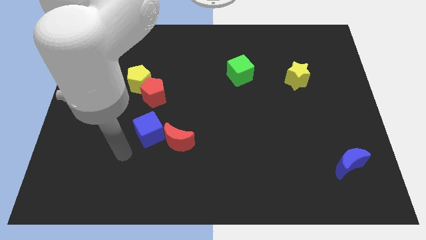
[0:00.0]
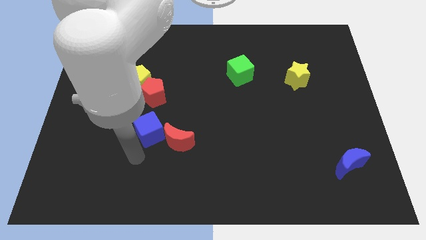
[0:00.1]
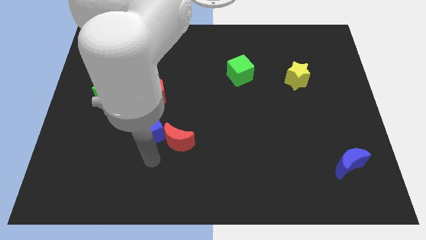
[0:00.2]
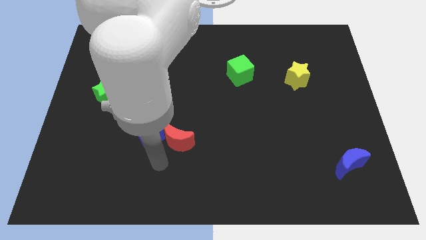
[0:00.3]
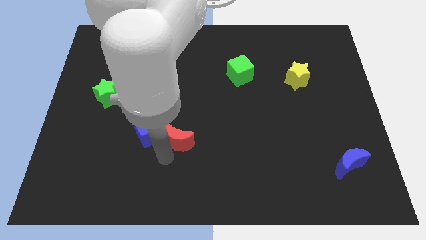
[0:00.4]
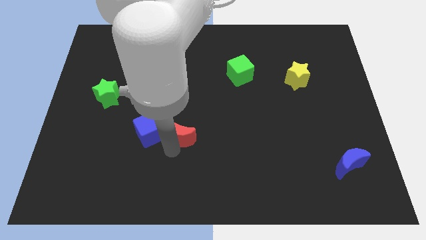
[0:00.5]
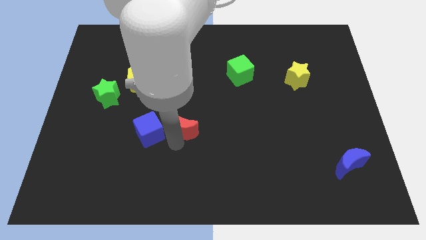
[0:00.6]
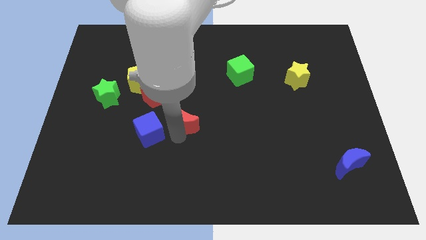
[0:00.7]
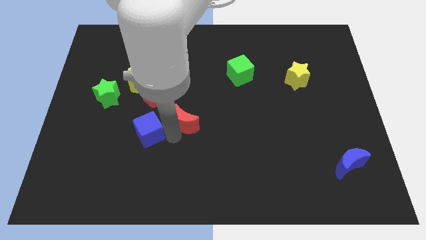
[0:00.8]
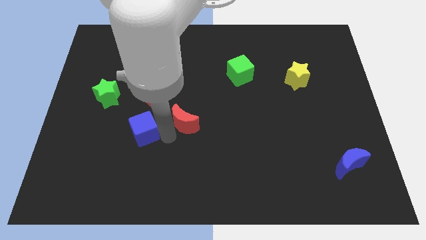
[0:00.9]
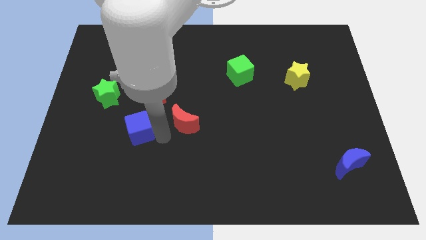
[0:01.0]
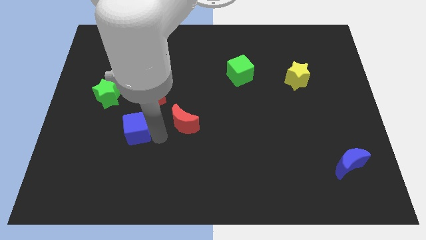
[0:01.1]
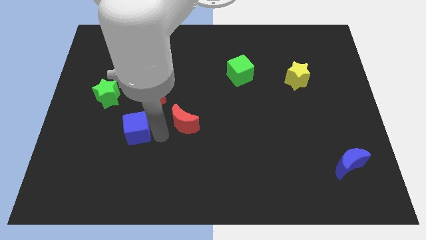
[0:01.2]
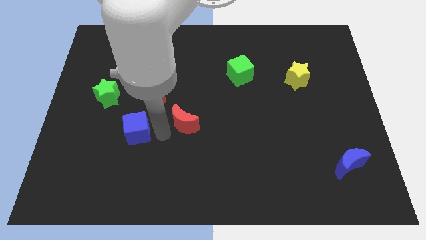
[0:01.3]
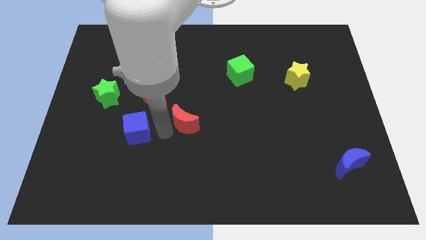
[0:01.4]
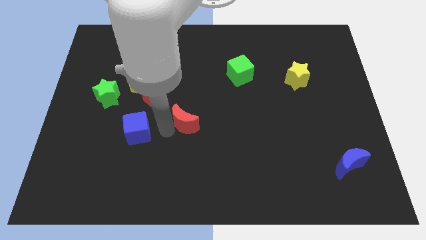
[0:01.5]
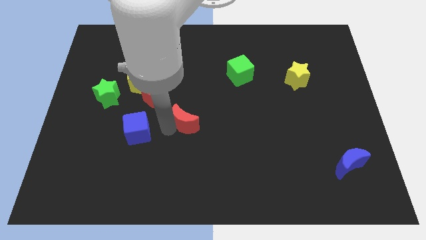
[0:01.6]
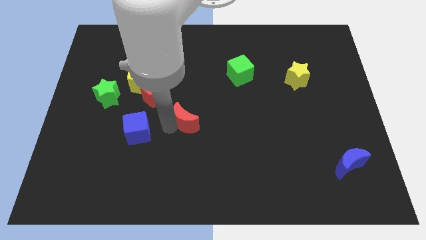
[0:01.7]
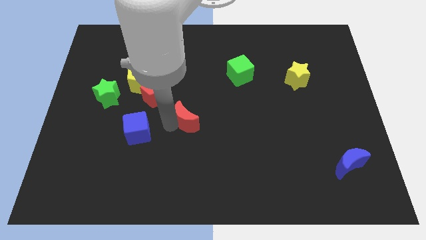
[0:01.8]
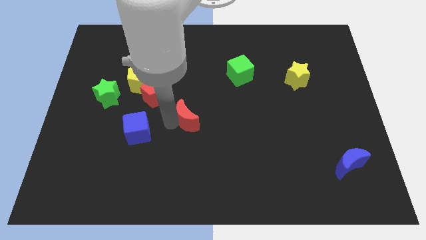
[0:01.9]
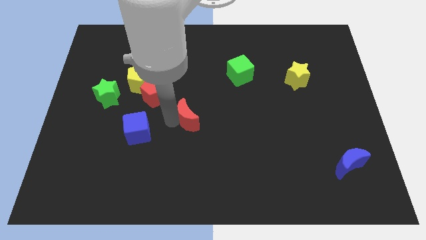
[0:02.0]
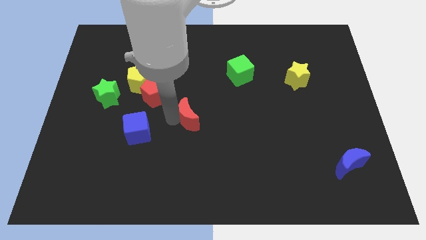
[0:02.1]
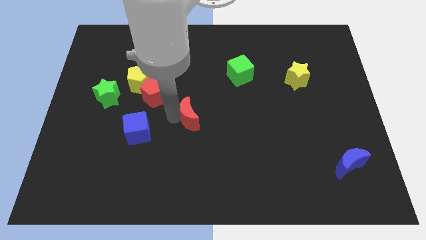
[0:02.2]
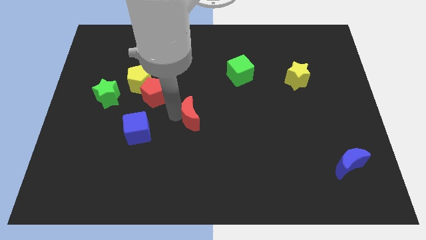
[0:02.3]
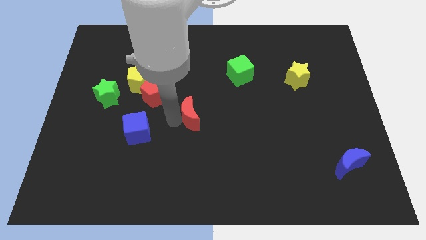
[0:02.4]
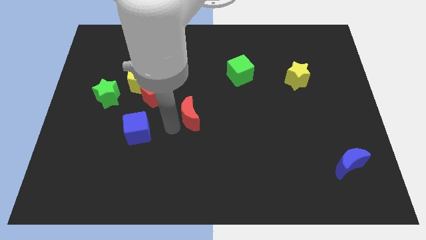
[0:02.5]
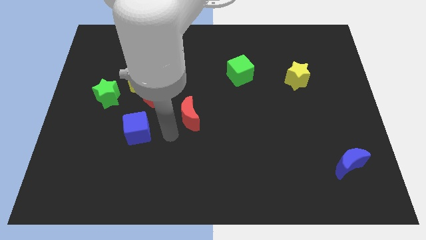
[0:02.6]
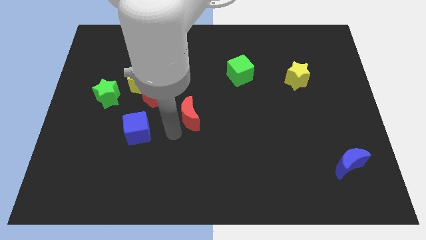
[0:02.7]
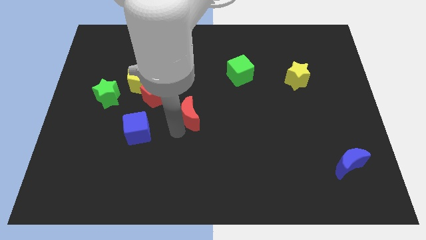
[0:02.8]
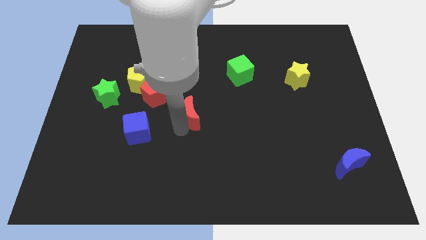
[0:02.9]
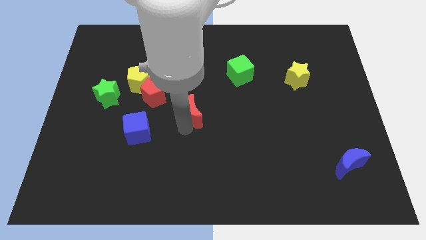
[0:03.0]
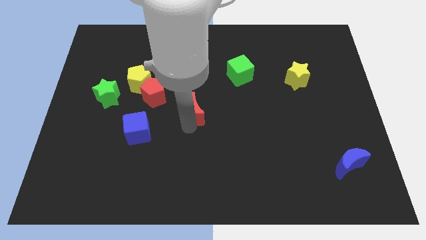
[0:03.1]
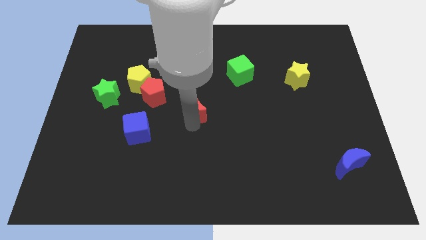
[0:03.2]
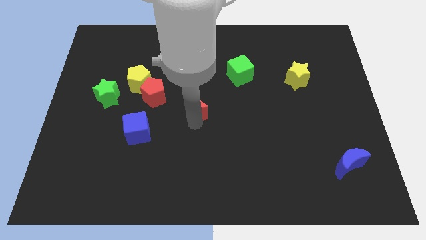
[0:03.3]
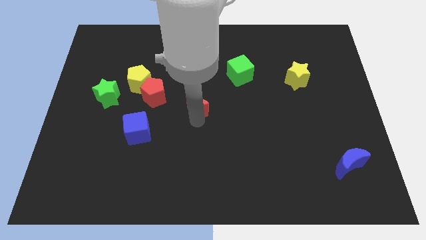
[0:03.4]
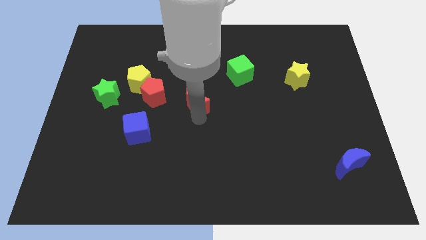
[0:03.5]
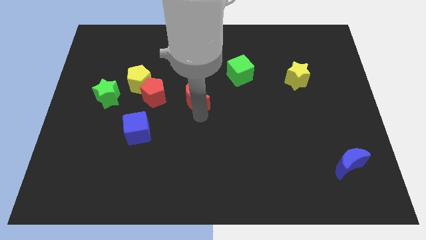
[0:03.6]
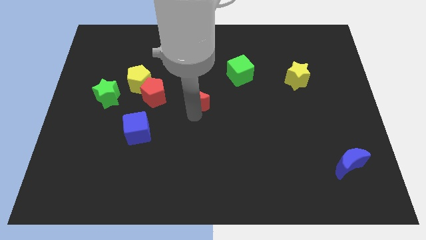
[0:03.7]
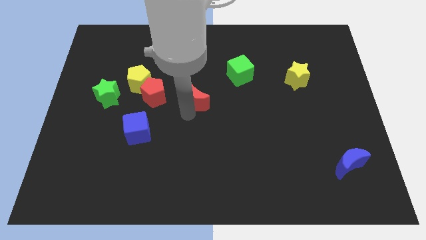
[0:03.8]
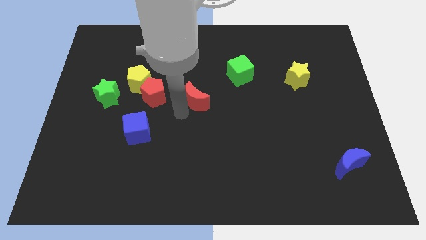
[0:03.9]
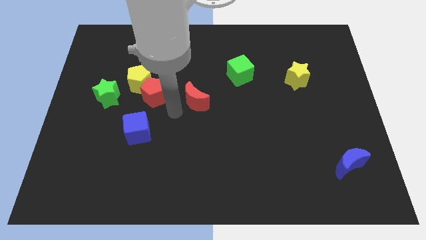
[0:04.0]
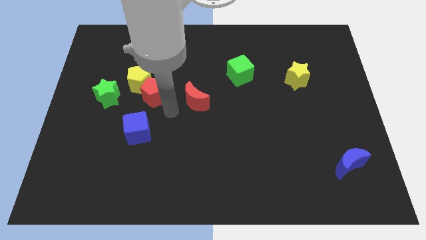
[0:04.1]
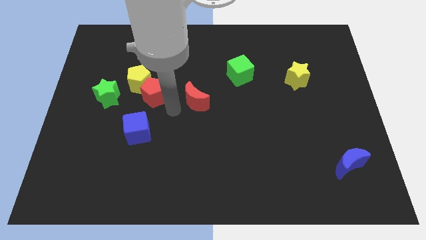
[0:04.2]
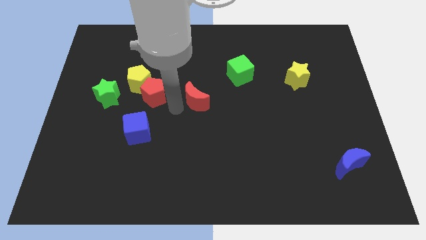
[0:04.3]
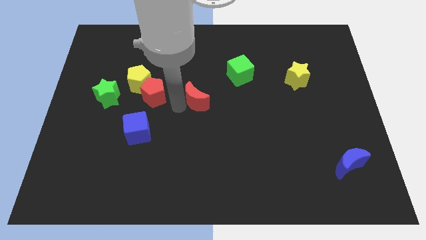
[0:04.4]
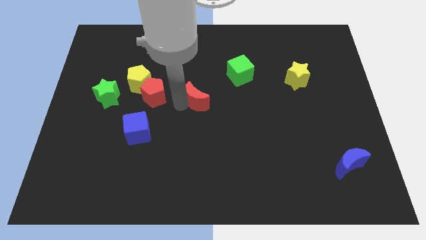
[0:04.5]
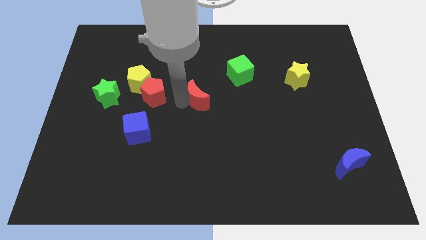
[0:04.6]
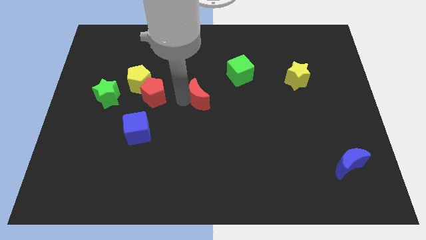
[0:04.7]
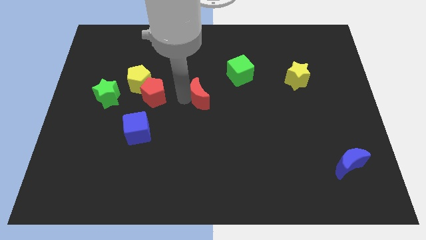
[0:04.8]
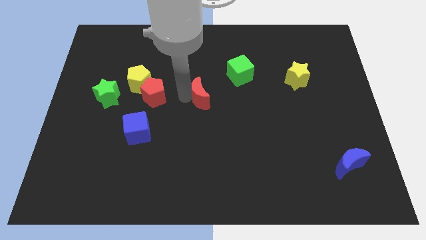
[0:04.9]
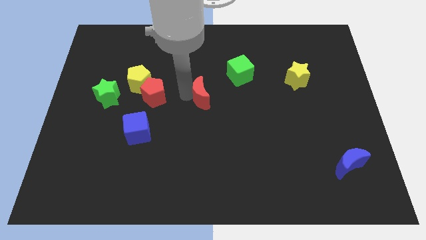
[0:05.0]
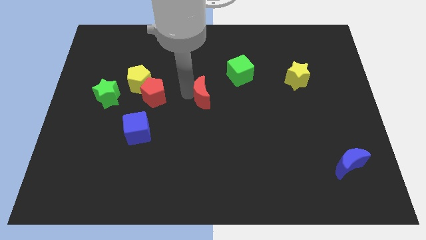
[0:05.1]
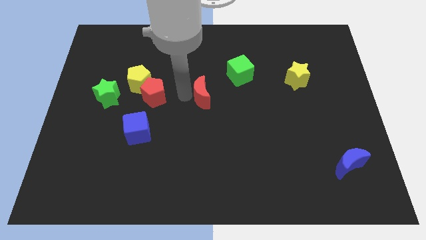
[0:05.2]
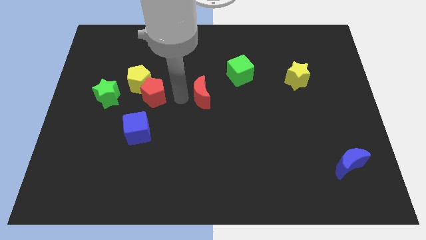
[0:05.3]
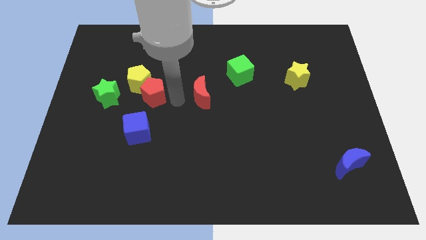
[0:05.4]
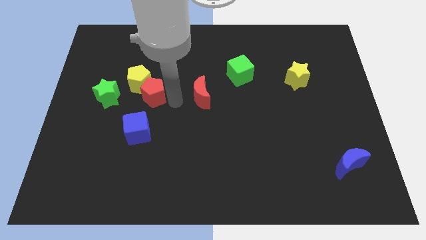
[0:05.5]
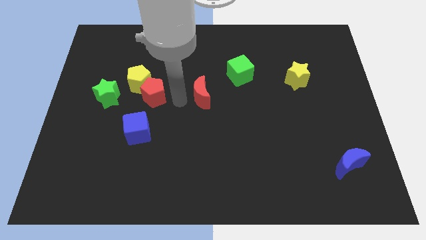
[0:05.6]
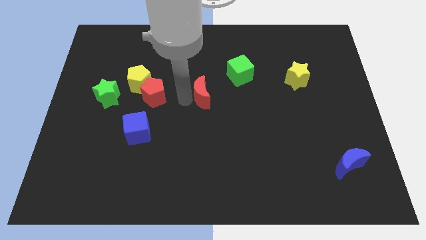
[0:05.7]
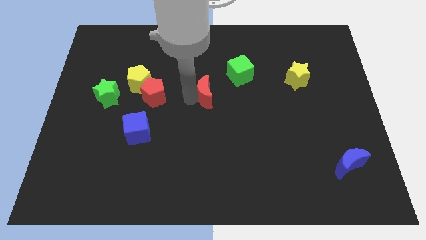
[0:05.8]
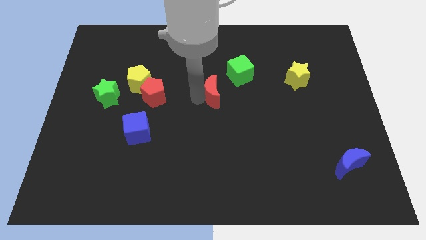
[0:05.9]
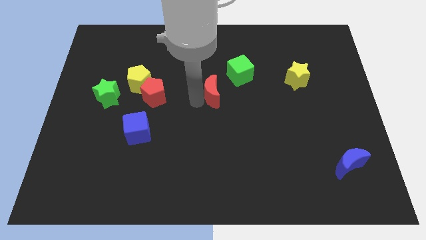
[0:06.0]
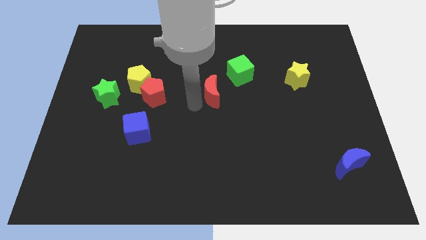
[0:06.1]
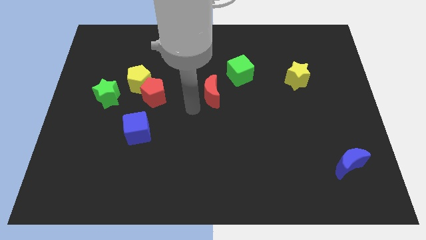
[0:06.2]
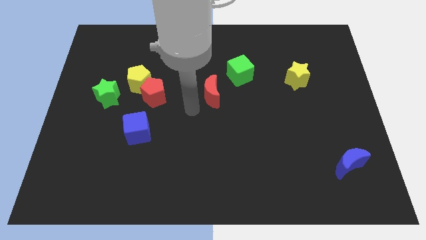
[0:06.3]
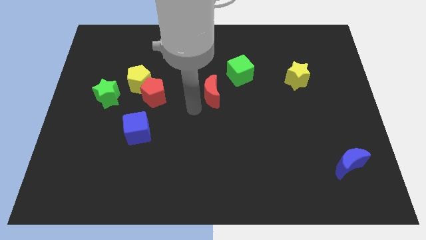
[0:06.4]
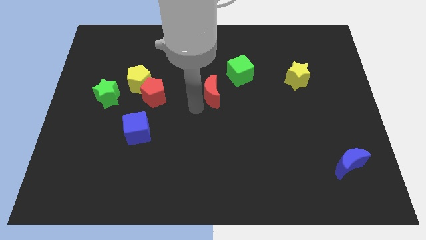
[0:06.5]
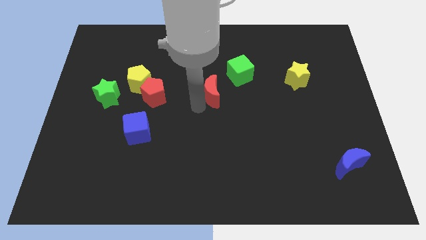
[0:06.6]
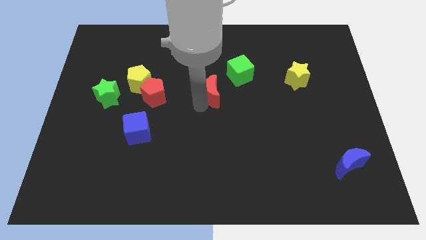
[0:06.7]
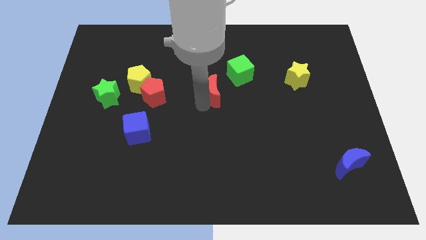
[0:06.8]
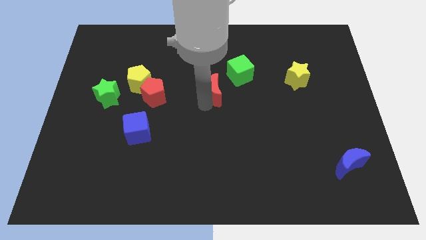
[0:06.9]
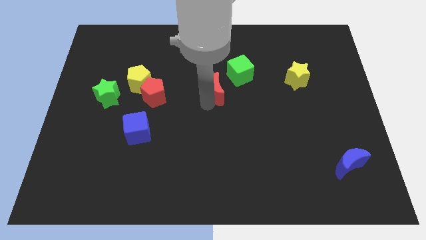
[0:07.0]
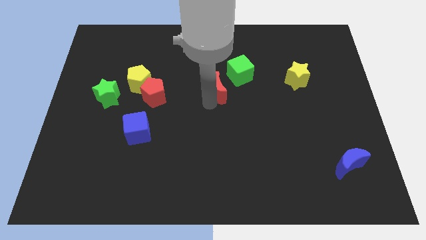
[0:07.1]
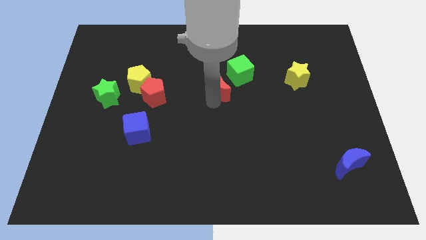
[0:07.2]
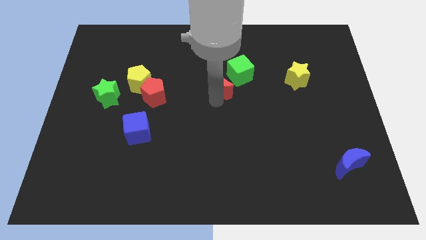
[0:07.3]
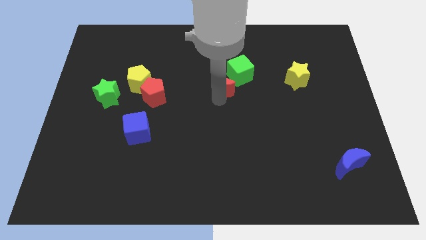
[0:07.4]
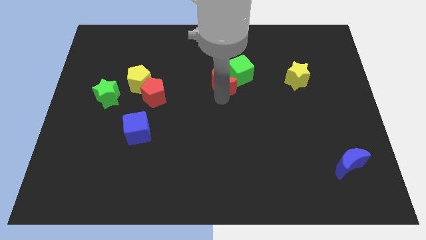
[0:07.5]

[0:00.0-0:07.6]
put the red moon next to the green cube
